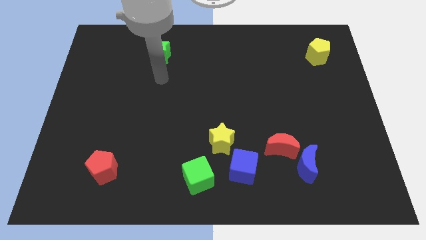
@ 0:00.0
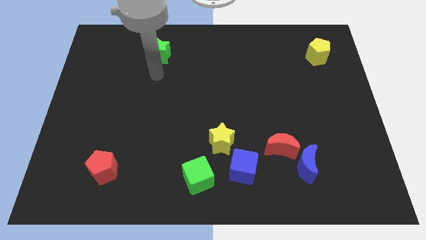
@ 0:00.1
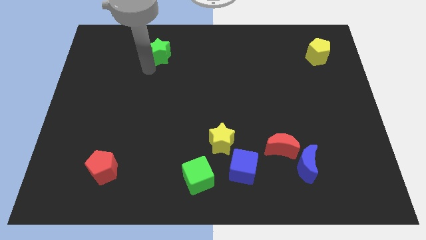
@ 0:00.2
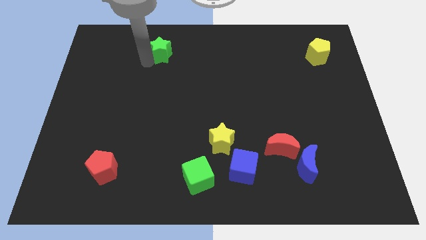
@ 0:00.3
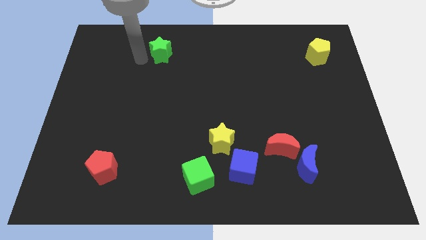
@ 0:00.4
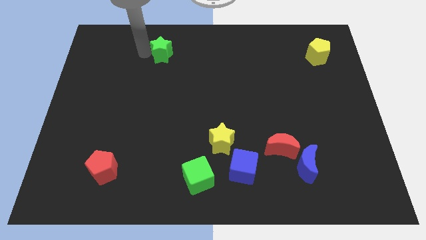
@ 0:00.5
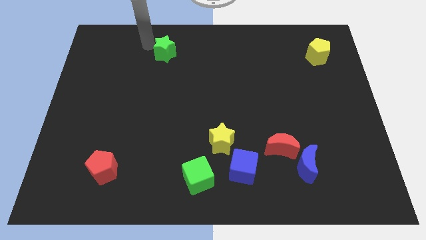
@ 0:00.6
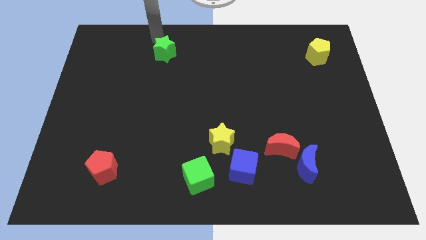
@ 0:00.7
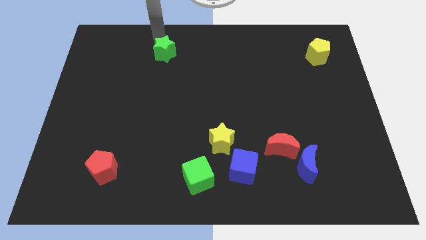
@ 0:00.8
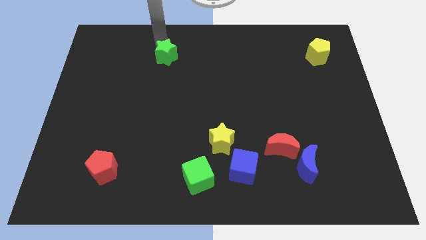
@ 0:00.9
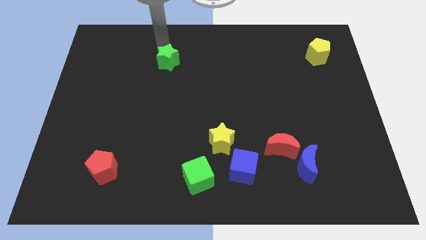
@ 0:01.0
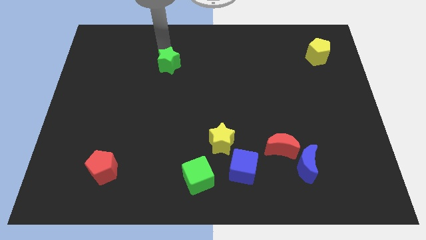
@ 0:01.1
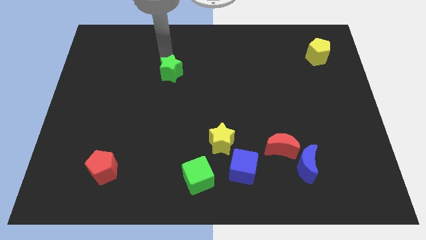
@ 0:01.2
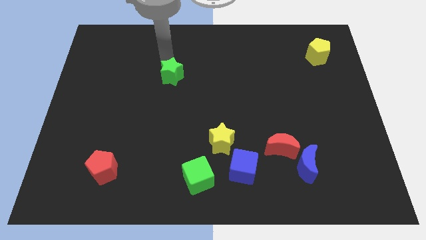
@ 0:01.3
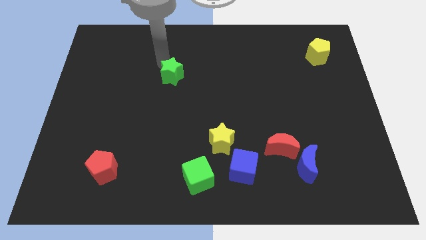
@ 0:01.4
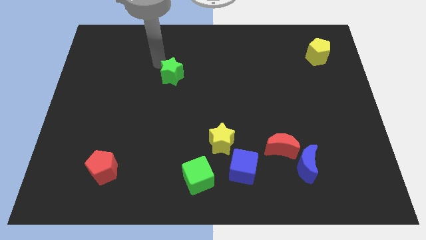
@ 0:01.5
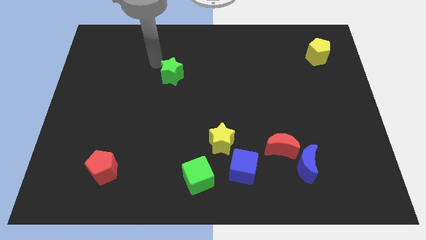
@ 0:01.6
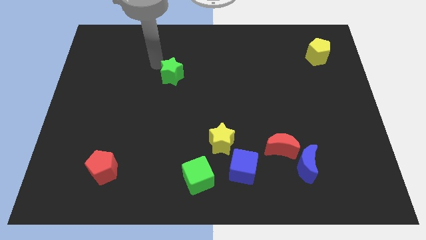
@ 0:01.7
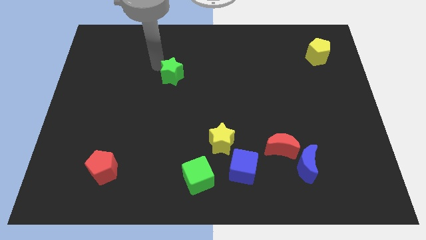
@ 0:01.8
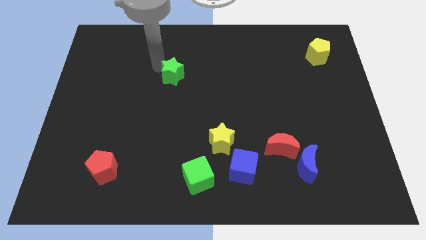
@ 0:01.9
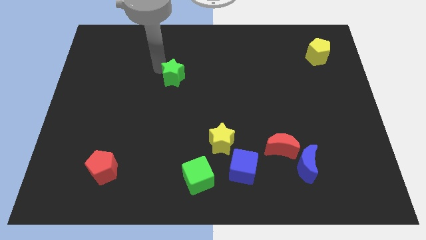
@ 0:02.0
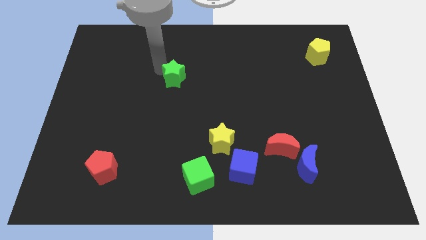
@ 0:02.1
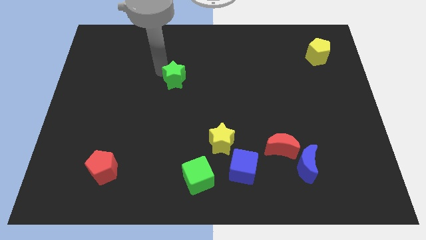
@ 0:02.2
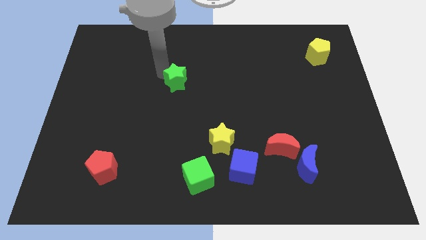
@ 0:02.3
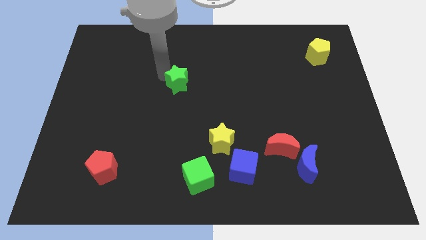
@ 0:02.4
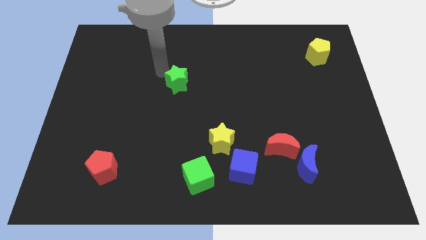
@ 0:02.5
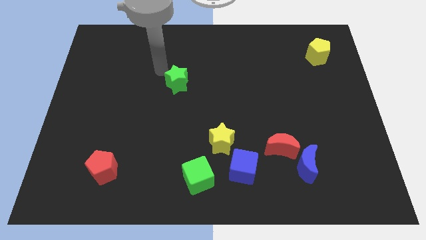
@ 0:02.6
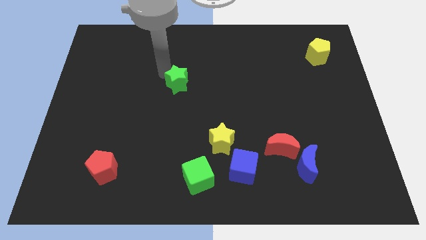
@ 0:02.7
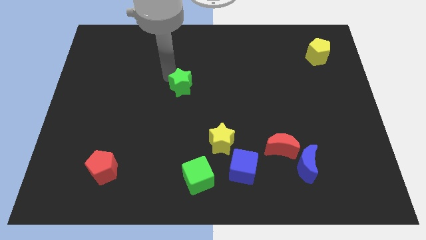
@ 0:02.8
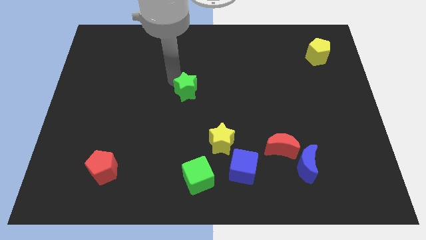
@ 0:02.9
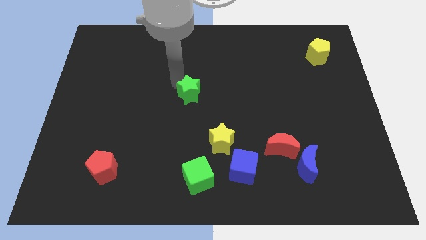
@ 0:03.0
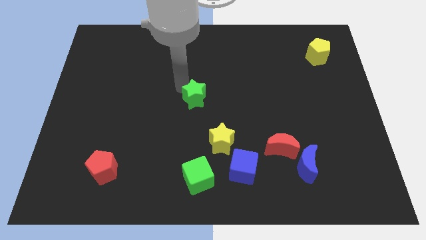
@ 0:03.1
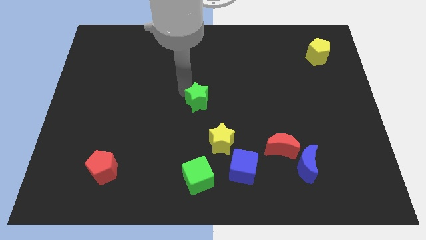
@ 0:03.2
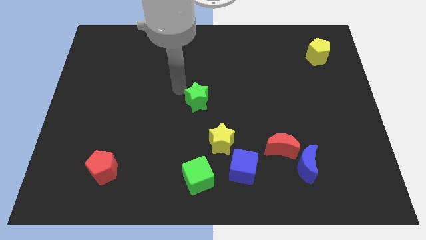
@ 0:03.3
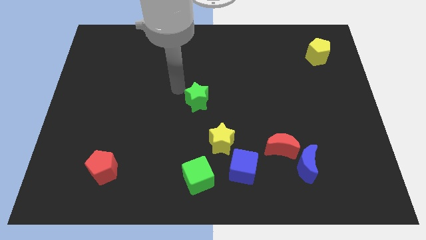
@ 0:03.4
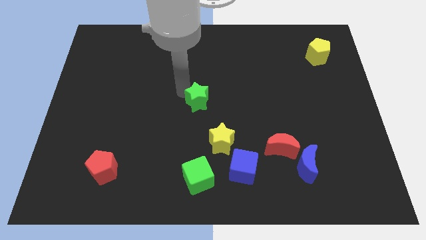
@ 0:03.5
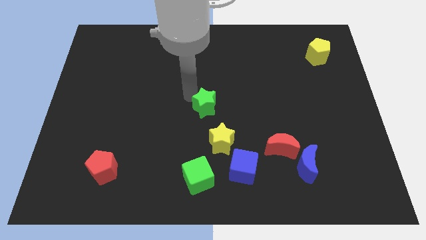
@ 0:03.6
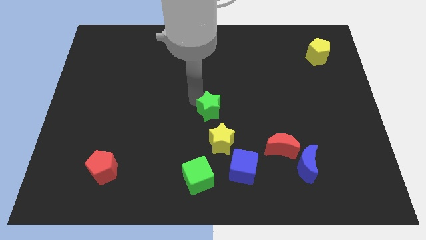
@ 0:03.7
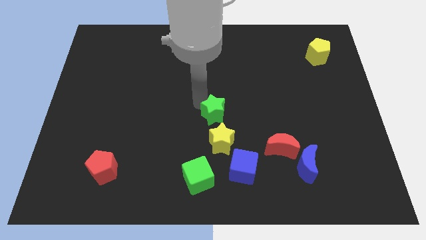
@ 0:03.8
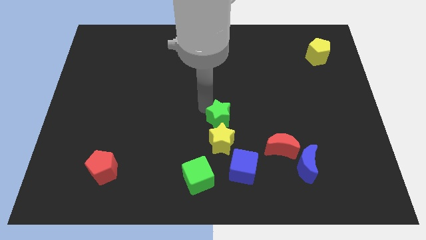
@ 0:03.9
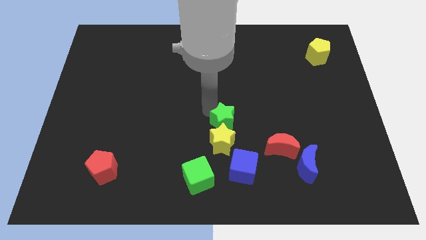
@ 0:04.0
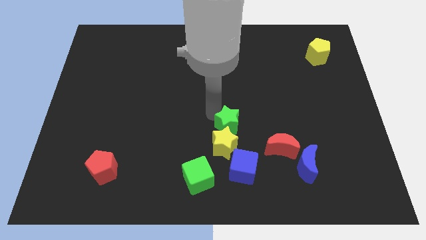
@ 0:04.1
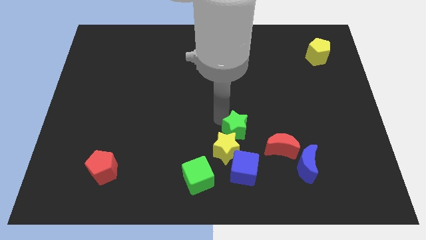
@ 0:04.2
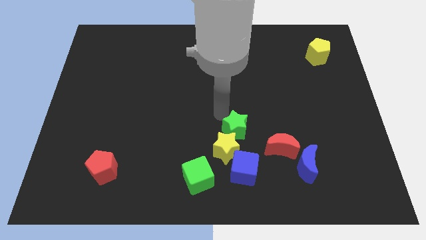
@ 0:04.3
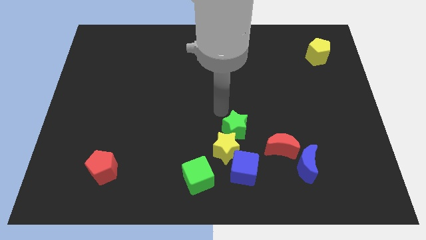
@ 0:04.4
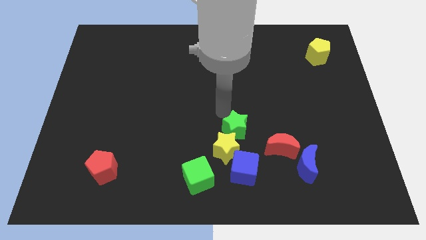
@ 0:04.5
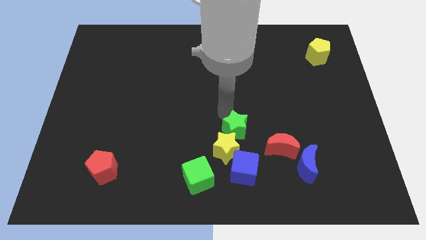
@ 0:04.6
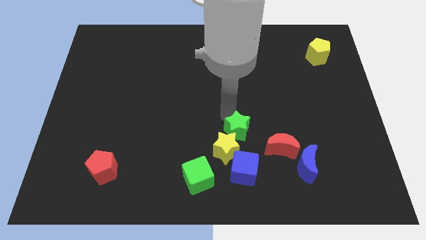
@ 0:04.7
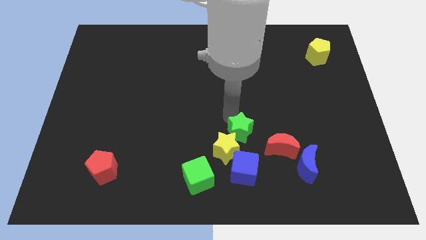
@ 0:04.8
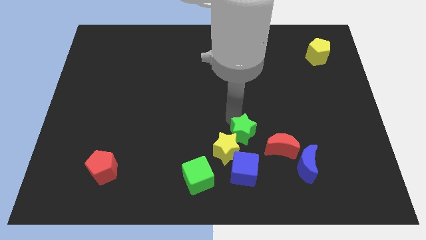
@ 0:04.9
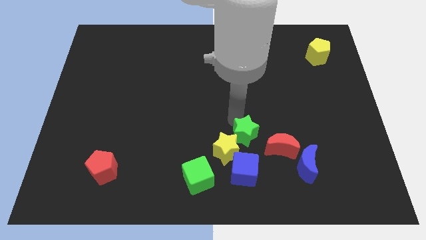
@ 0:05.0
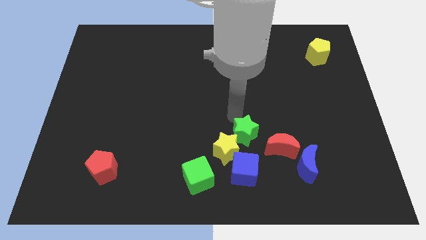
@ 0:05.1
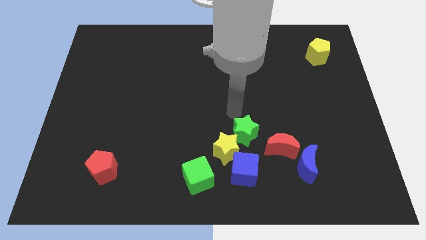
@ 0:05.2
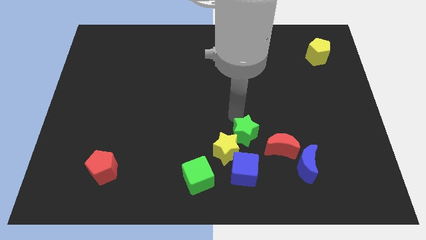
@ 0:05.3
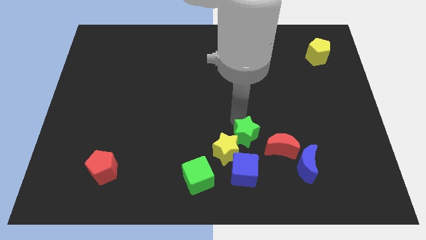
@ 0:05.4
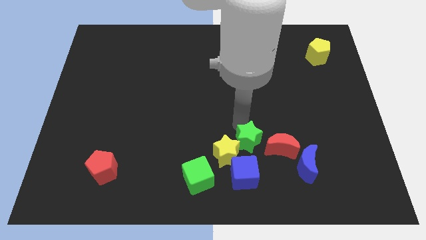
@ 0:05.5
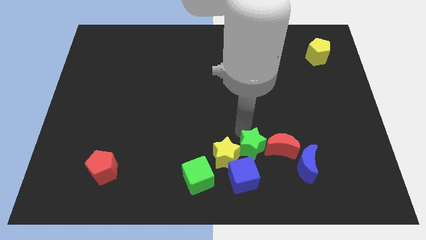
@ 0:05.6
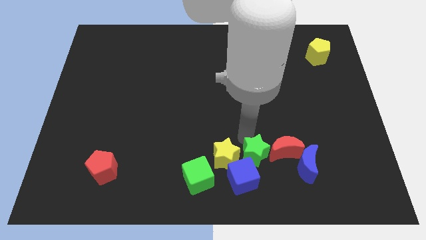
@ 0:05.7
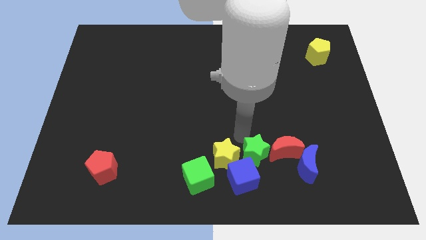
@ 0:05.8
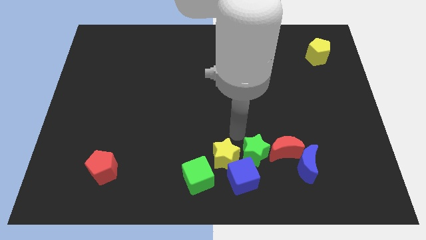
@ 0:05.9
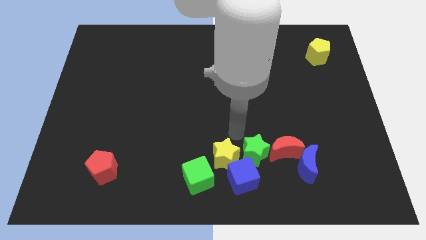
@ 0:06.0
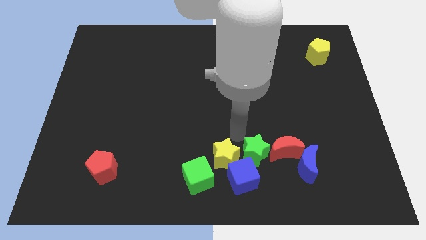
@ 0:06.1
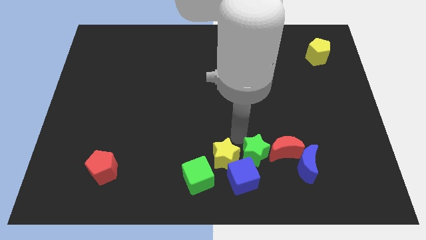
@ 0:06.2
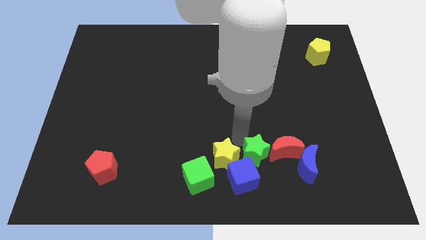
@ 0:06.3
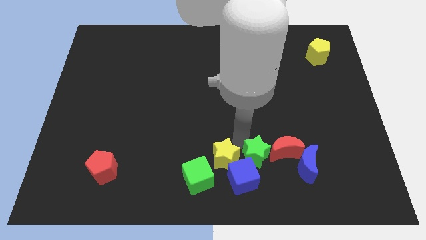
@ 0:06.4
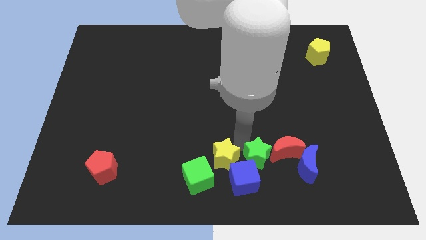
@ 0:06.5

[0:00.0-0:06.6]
move the green star to the right side of the green cube
